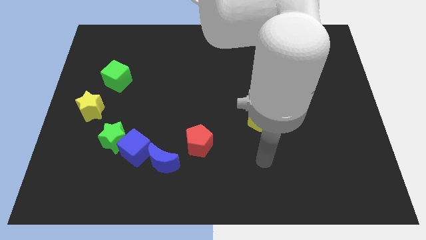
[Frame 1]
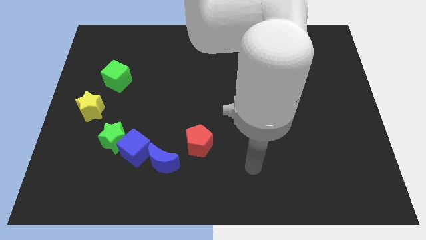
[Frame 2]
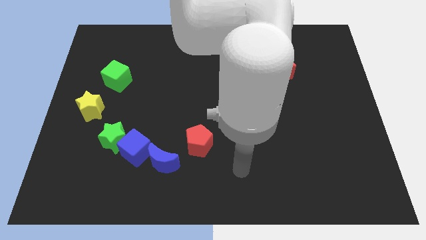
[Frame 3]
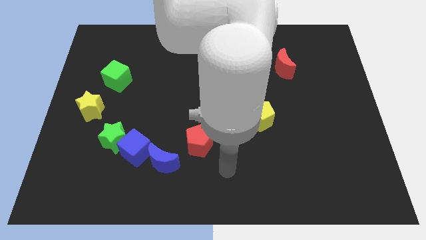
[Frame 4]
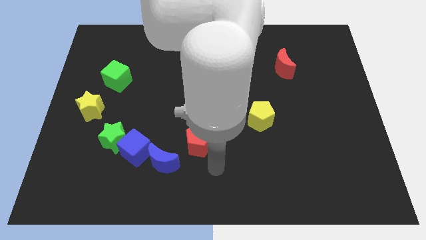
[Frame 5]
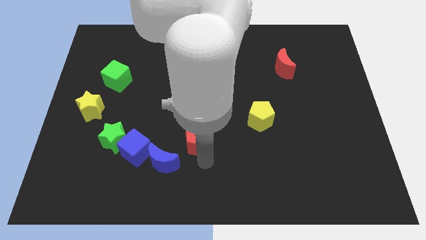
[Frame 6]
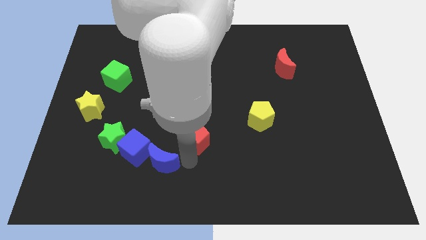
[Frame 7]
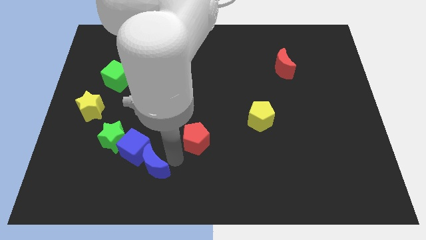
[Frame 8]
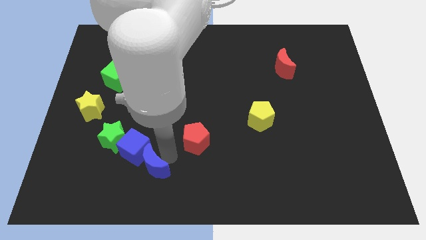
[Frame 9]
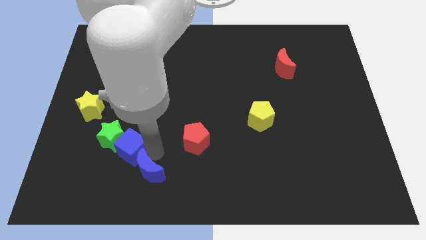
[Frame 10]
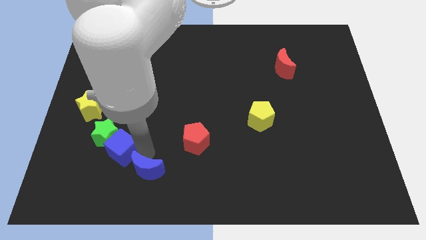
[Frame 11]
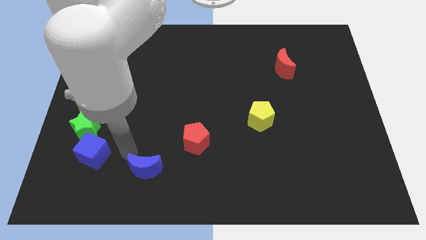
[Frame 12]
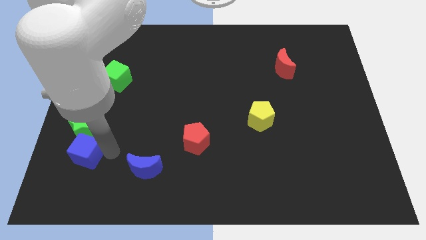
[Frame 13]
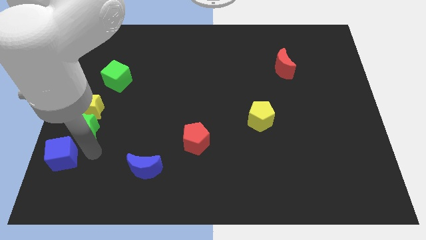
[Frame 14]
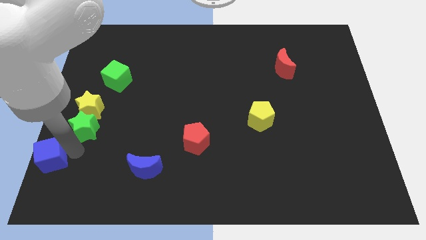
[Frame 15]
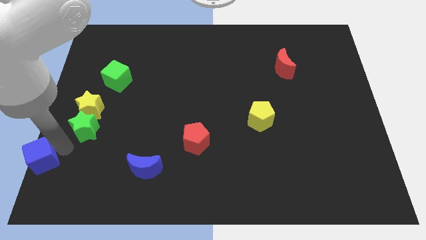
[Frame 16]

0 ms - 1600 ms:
move the green star away from the blue cube

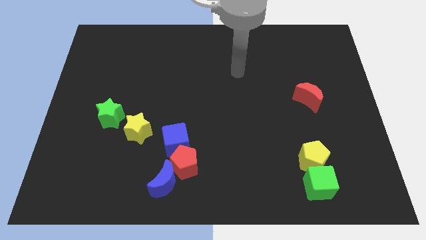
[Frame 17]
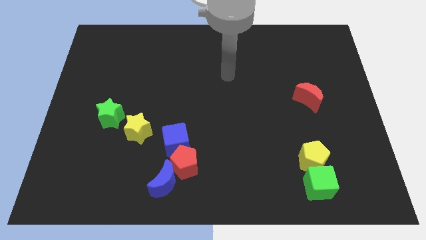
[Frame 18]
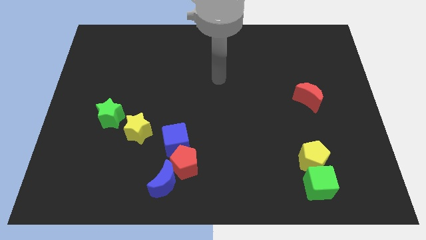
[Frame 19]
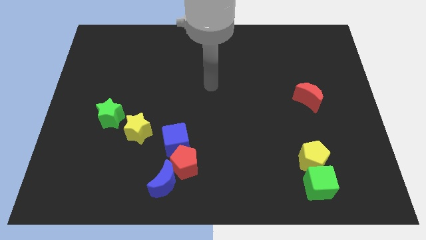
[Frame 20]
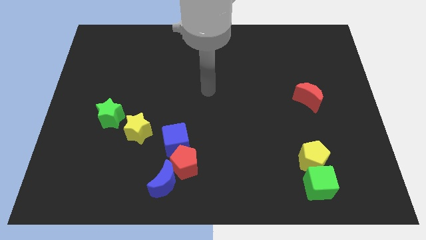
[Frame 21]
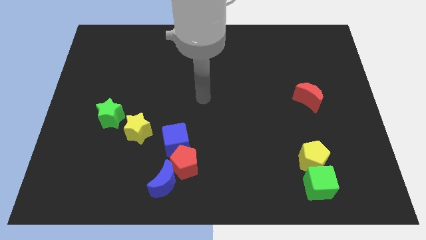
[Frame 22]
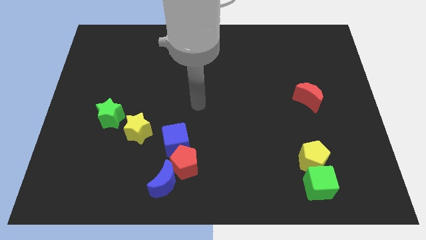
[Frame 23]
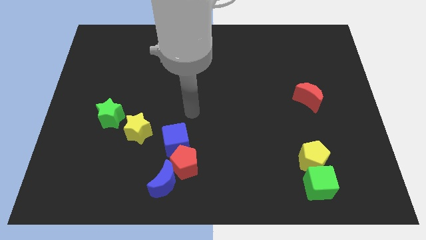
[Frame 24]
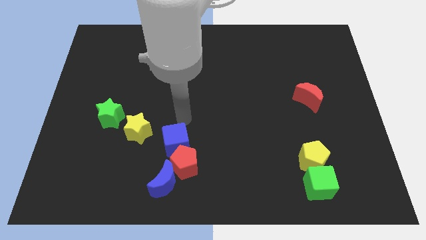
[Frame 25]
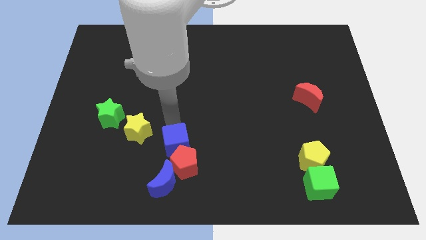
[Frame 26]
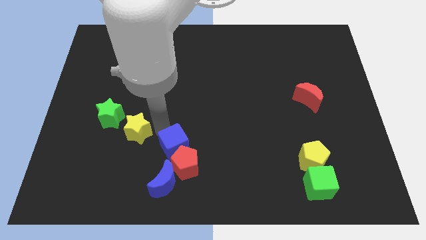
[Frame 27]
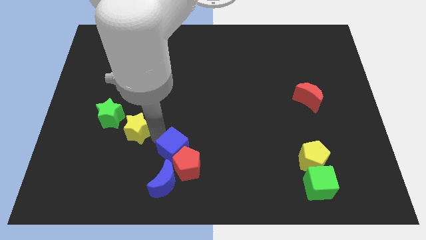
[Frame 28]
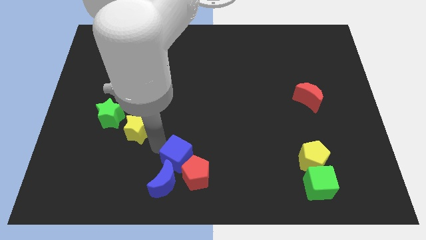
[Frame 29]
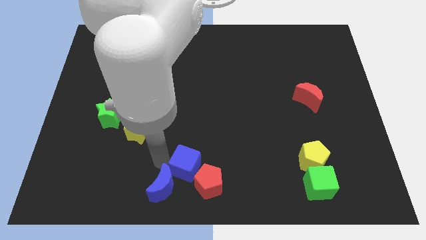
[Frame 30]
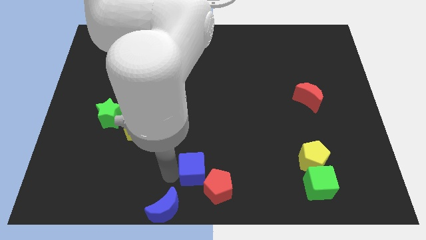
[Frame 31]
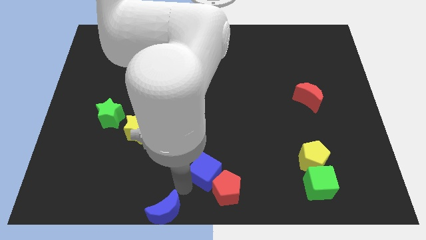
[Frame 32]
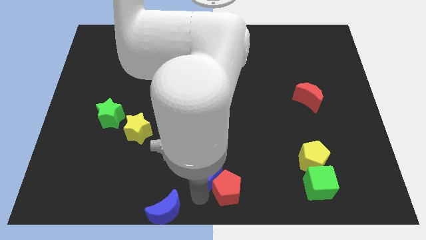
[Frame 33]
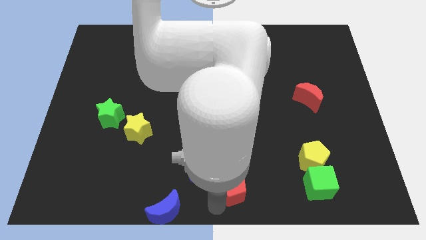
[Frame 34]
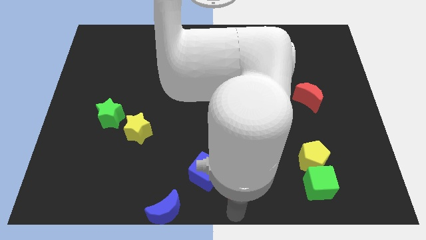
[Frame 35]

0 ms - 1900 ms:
separate the red pentagon from the blue moon and blue cube

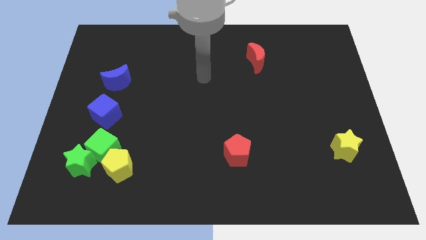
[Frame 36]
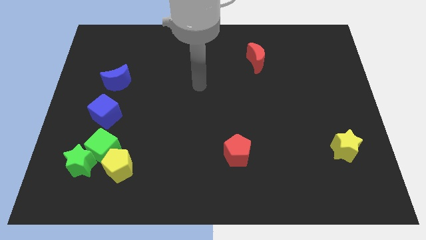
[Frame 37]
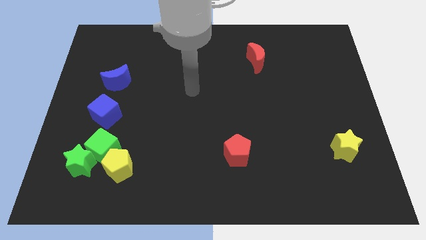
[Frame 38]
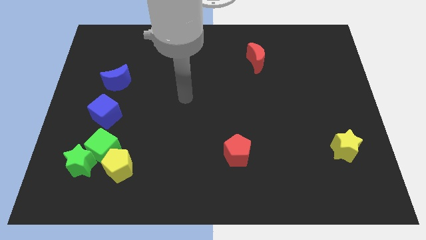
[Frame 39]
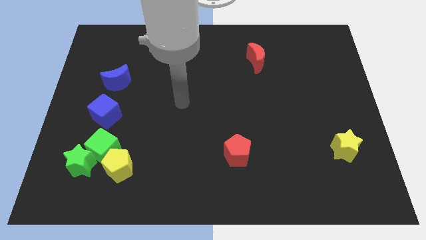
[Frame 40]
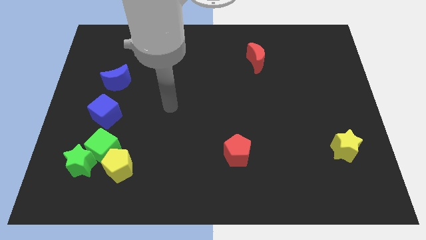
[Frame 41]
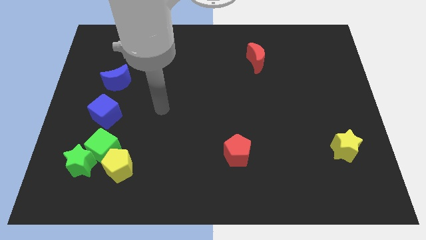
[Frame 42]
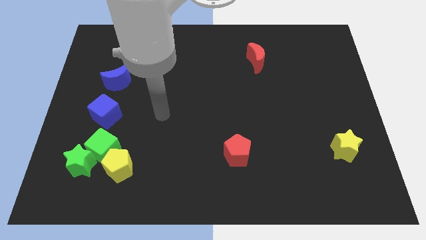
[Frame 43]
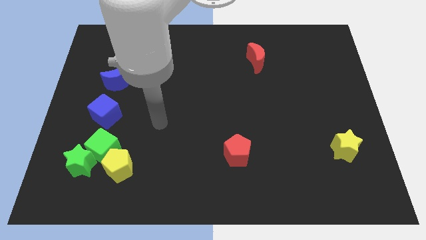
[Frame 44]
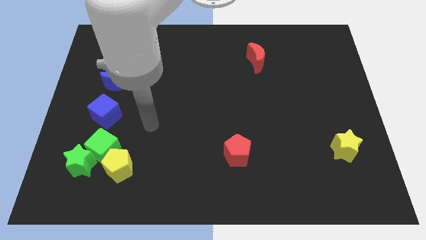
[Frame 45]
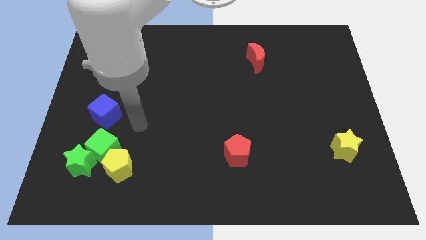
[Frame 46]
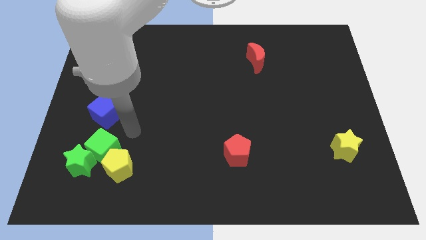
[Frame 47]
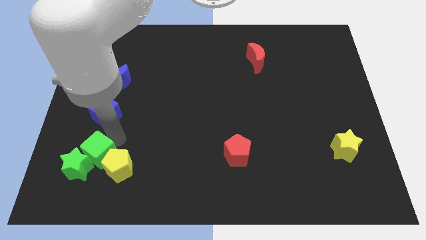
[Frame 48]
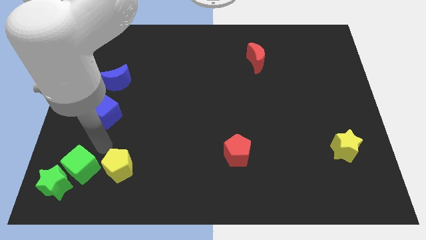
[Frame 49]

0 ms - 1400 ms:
move the yellow pentagon away from the green cube and green star

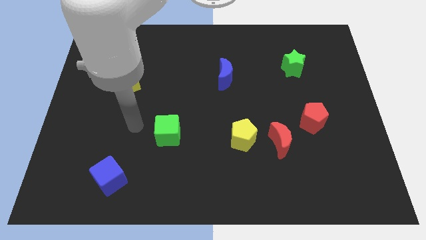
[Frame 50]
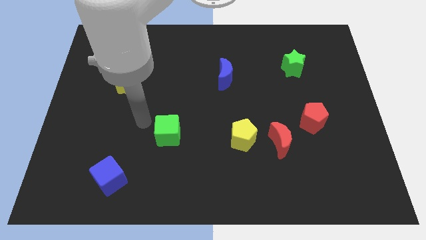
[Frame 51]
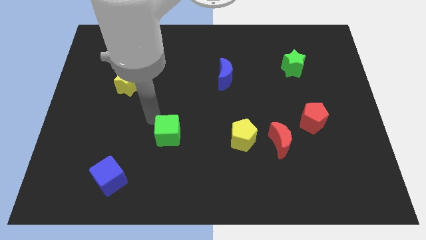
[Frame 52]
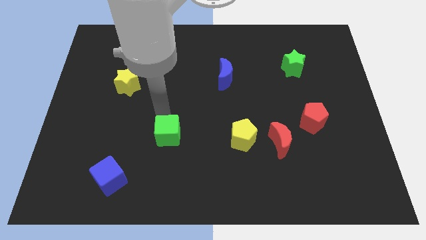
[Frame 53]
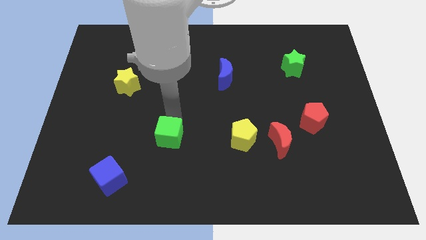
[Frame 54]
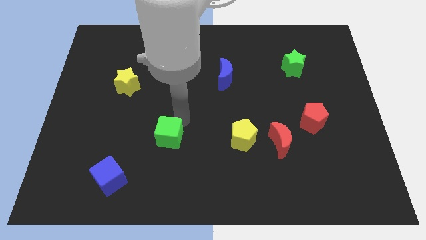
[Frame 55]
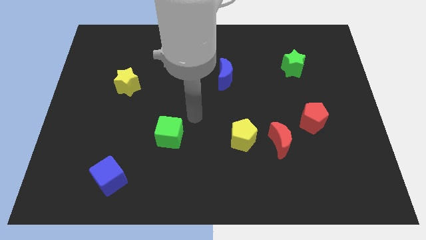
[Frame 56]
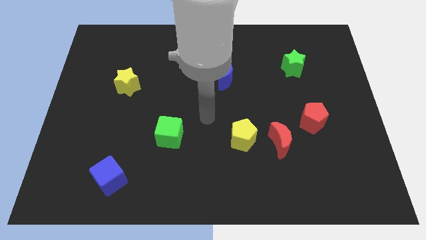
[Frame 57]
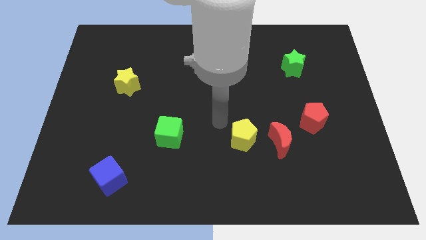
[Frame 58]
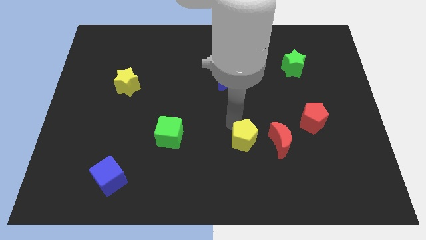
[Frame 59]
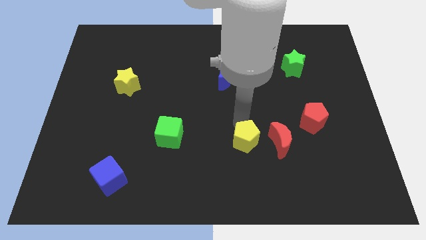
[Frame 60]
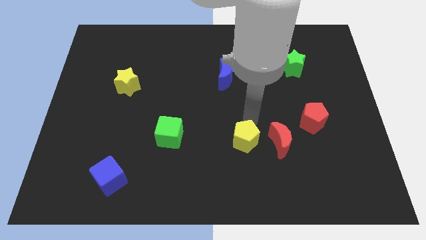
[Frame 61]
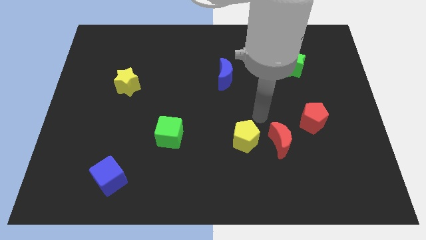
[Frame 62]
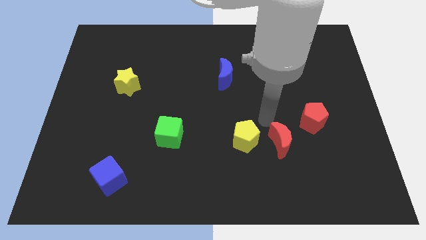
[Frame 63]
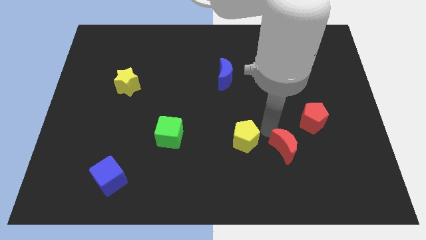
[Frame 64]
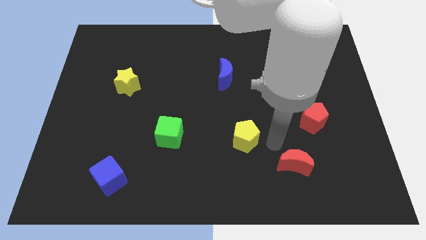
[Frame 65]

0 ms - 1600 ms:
separate the yellow pentagon from the red moon

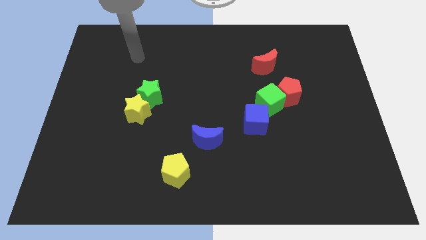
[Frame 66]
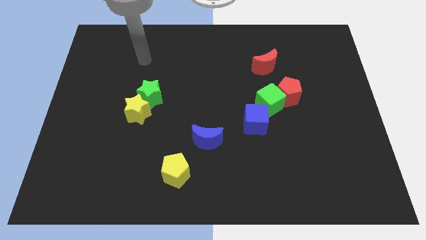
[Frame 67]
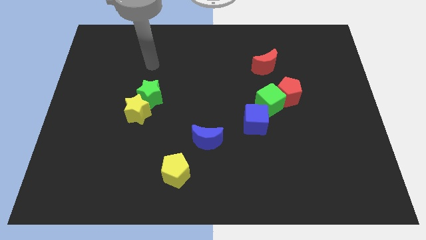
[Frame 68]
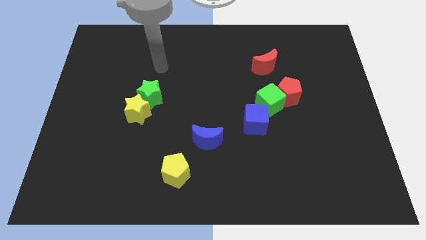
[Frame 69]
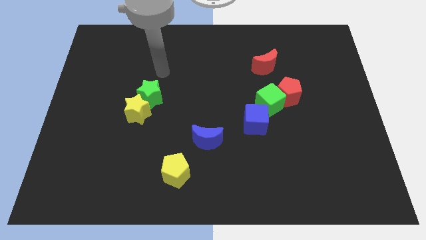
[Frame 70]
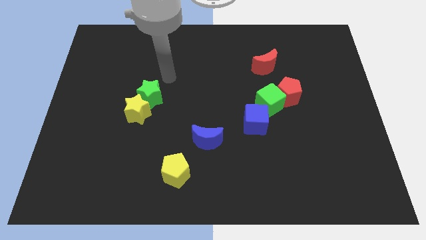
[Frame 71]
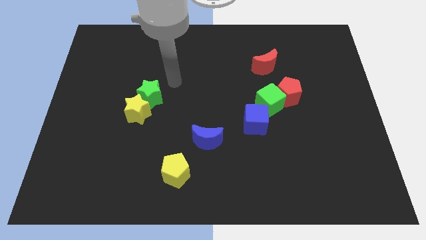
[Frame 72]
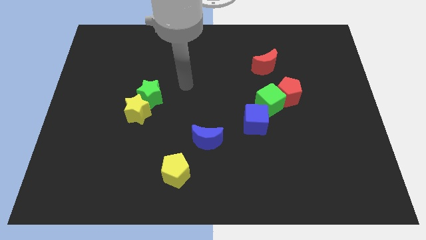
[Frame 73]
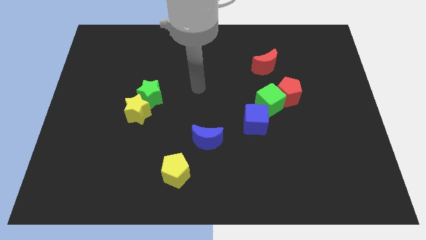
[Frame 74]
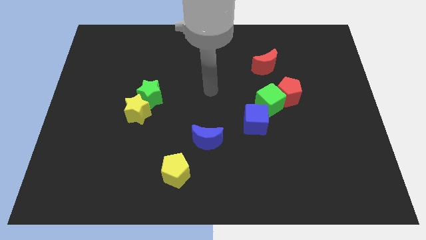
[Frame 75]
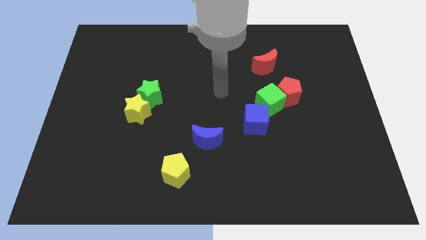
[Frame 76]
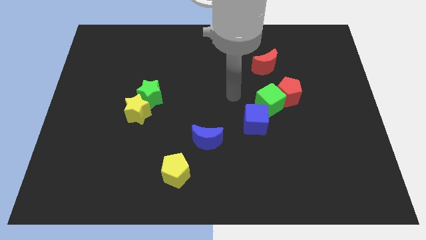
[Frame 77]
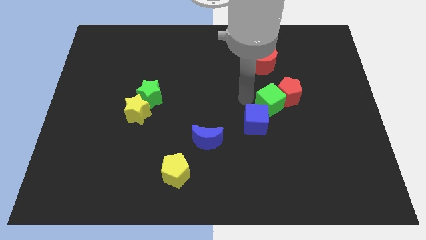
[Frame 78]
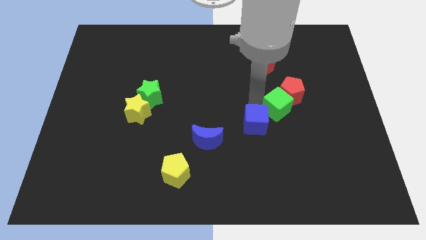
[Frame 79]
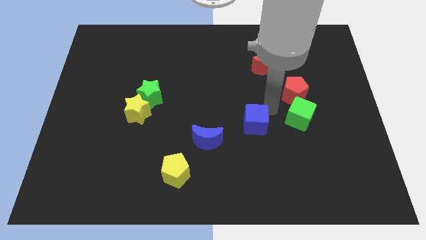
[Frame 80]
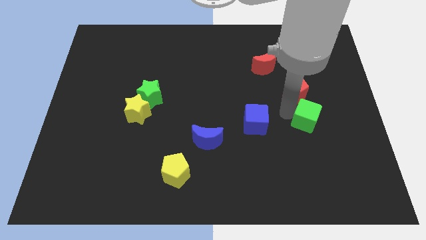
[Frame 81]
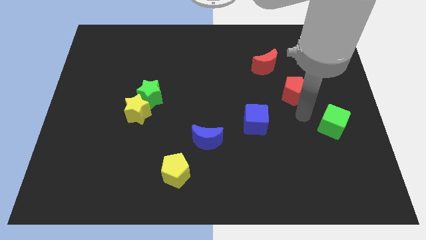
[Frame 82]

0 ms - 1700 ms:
pull the red pentagon apart from the green cube

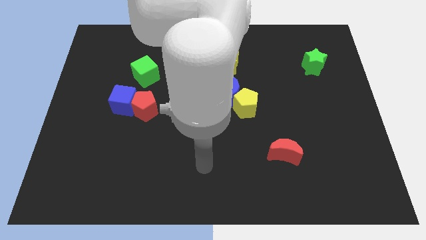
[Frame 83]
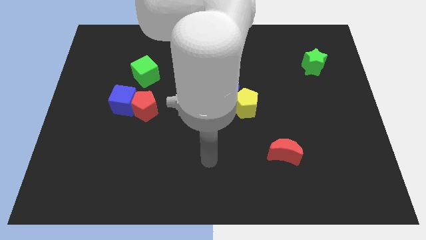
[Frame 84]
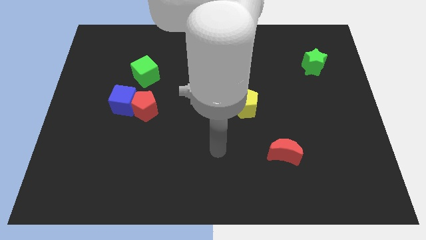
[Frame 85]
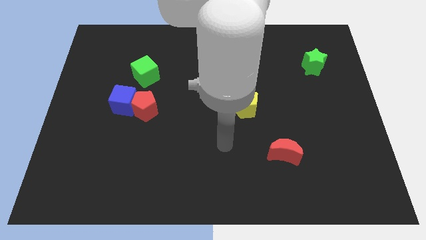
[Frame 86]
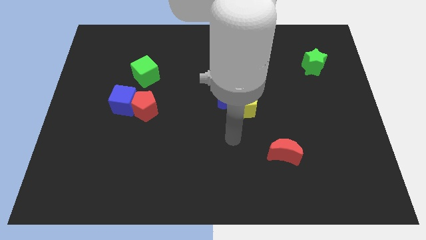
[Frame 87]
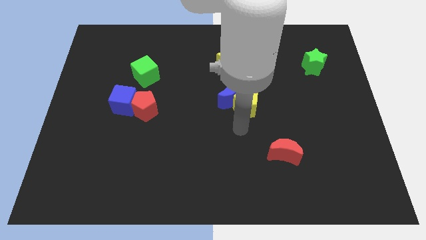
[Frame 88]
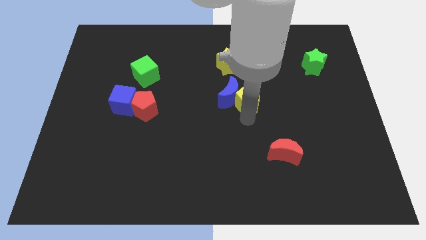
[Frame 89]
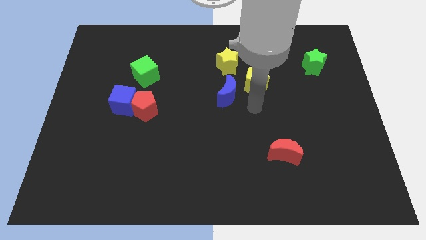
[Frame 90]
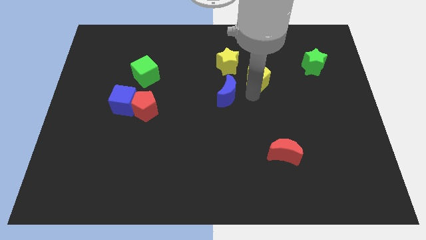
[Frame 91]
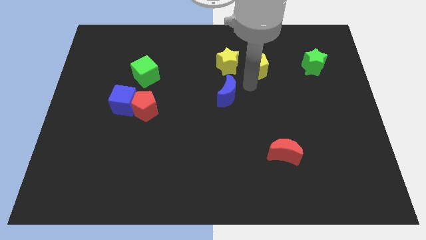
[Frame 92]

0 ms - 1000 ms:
move the blue moon away from the yellow pentagon
